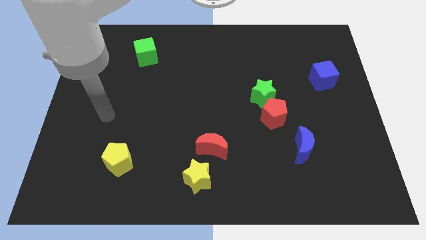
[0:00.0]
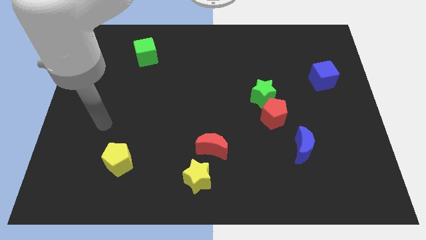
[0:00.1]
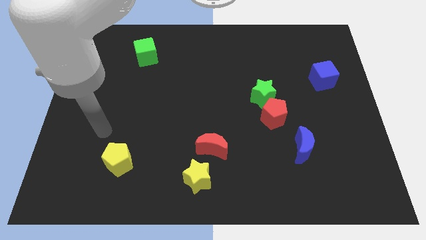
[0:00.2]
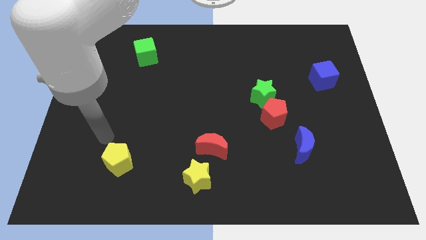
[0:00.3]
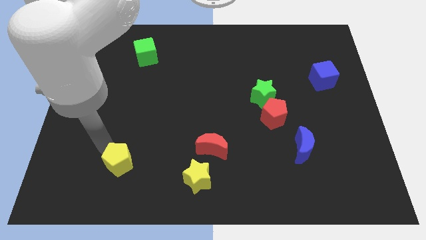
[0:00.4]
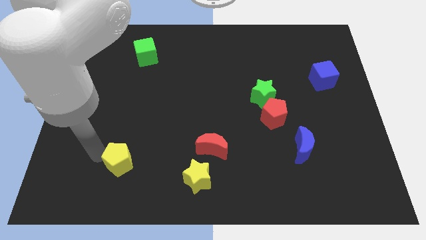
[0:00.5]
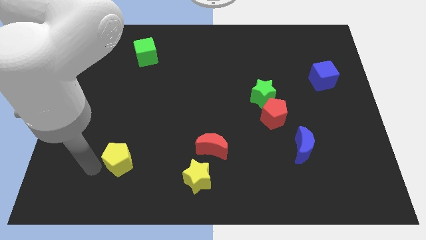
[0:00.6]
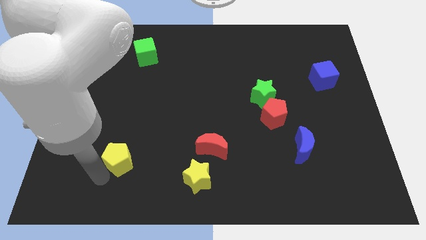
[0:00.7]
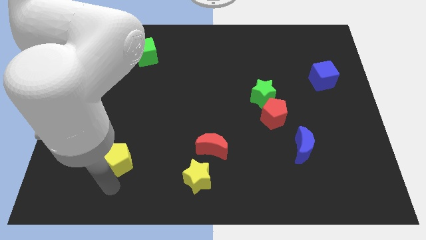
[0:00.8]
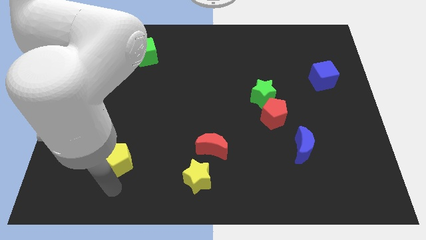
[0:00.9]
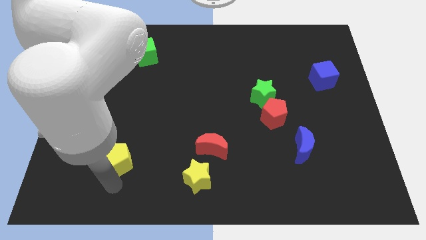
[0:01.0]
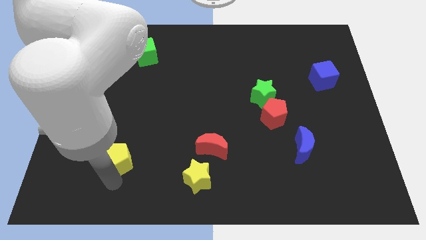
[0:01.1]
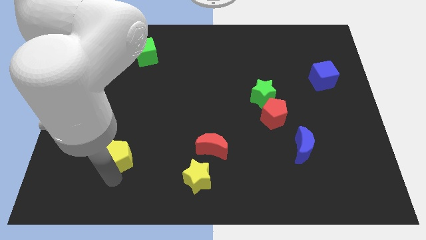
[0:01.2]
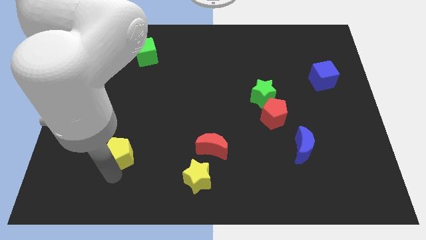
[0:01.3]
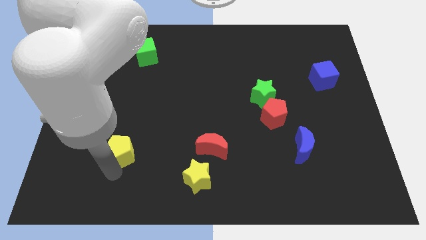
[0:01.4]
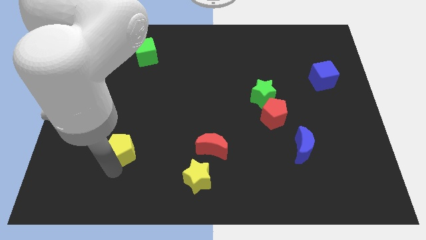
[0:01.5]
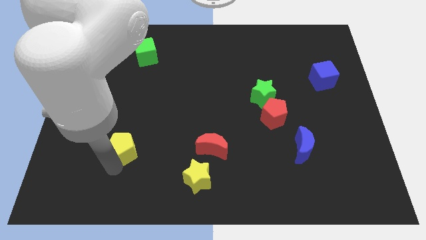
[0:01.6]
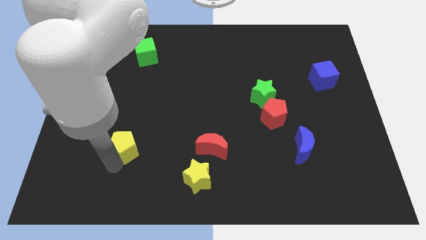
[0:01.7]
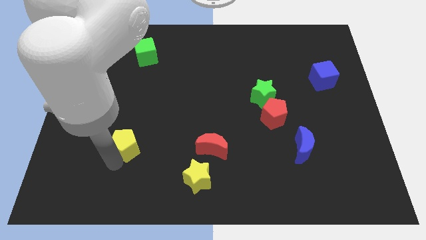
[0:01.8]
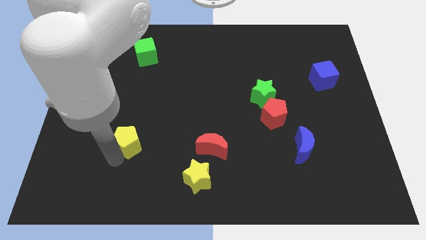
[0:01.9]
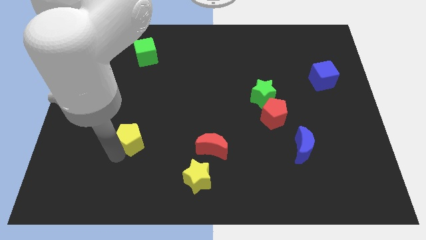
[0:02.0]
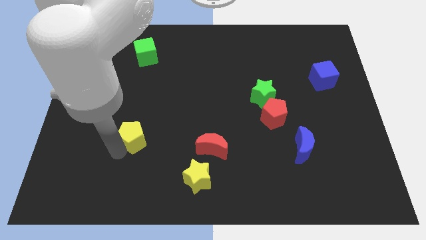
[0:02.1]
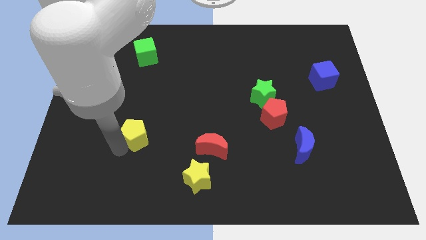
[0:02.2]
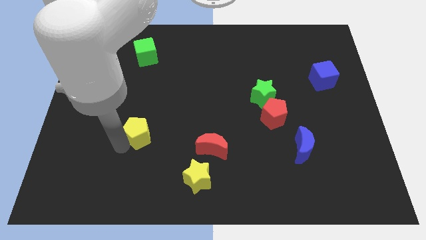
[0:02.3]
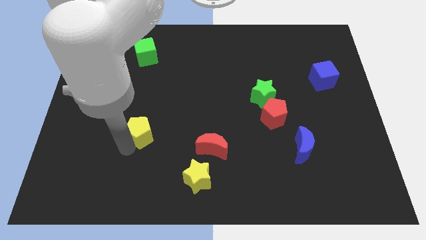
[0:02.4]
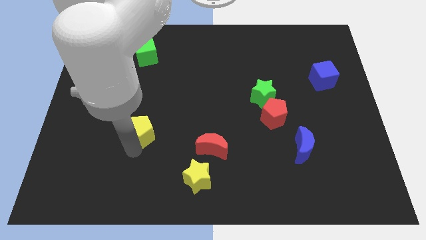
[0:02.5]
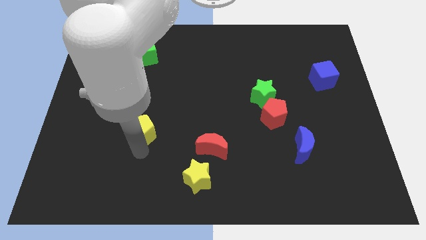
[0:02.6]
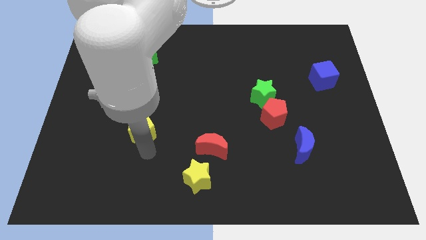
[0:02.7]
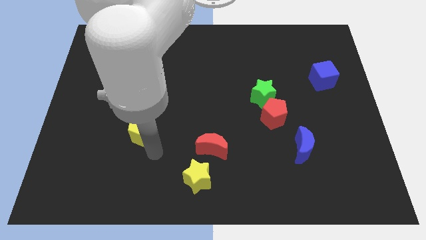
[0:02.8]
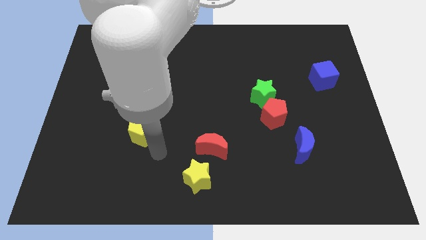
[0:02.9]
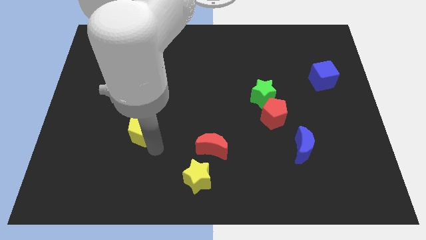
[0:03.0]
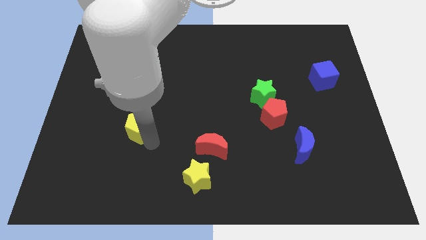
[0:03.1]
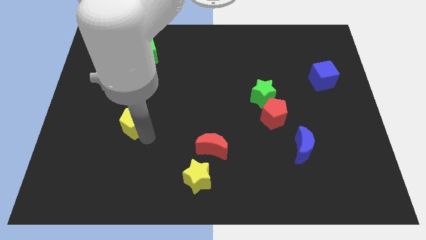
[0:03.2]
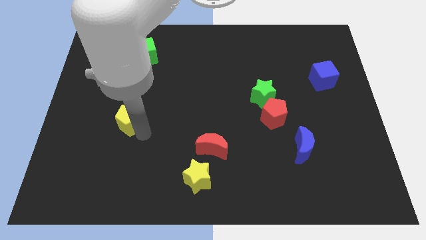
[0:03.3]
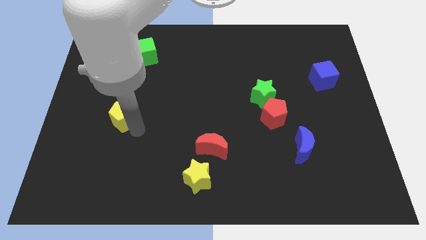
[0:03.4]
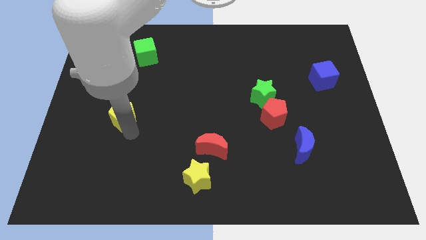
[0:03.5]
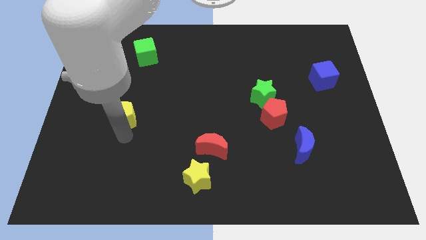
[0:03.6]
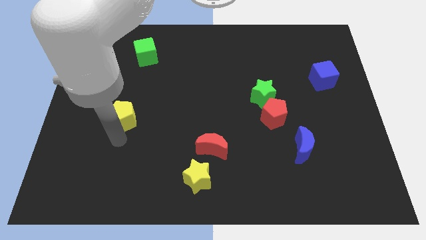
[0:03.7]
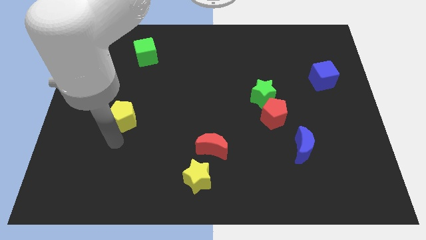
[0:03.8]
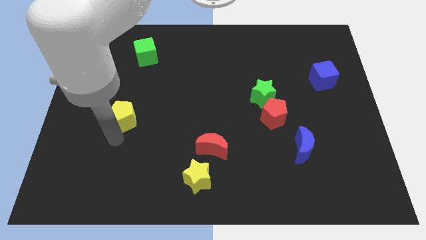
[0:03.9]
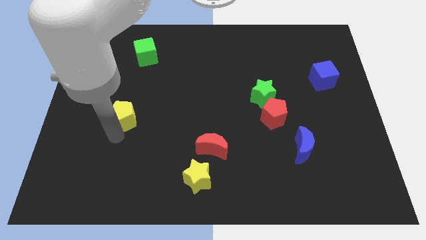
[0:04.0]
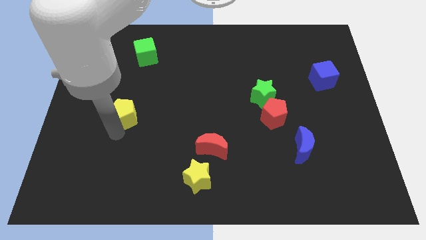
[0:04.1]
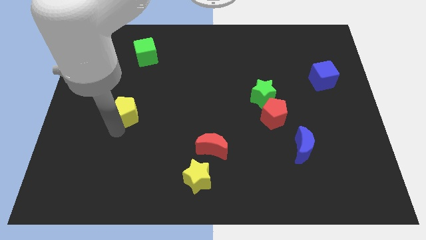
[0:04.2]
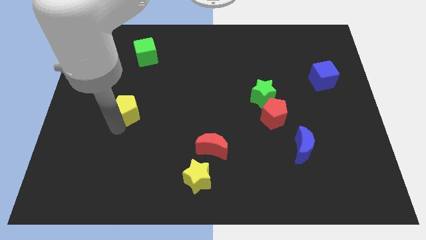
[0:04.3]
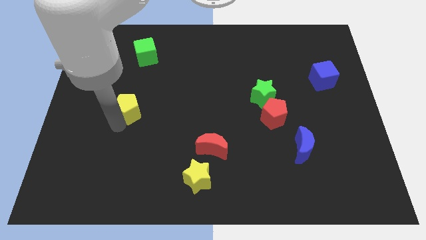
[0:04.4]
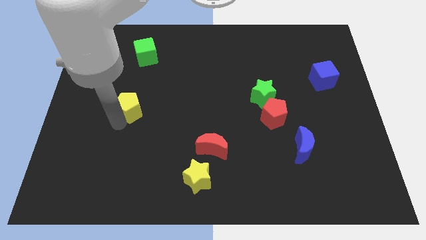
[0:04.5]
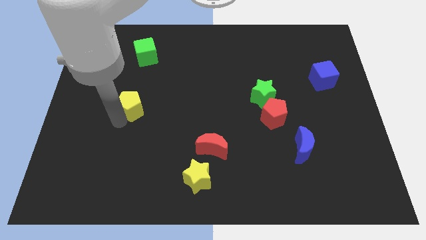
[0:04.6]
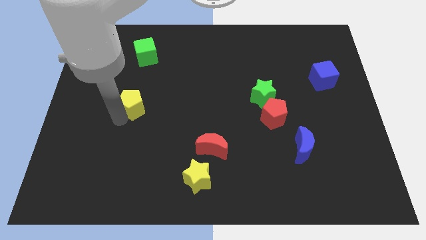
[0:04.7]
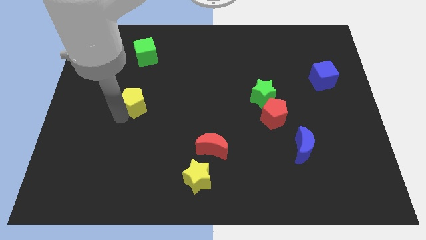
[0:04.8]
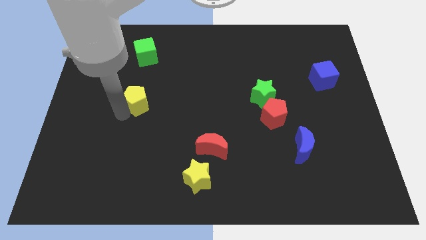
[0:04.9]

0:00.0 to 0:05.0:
push the yellow pentagon below the green cube

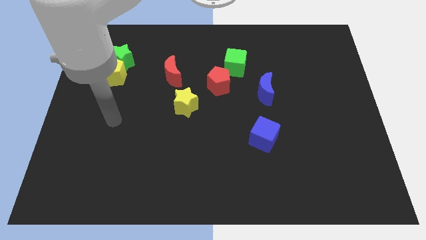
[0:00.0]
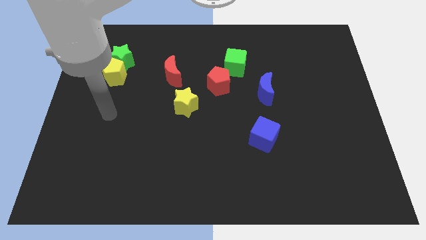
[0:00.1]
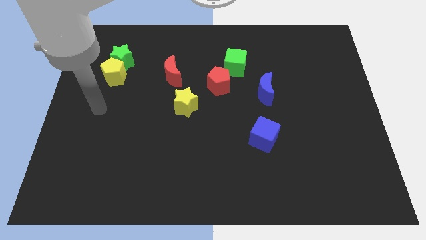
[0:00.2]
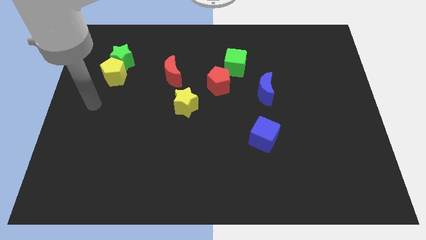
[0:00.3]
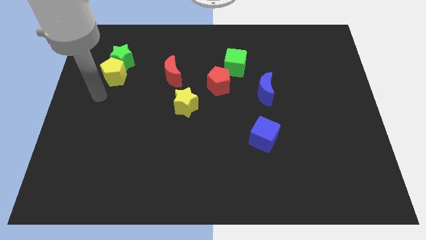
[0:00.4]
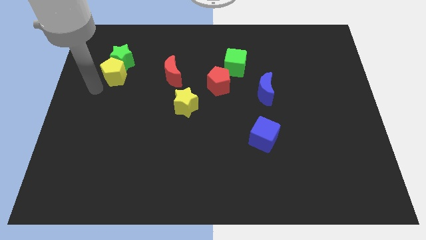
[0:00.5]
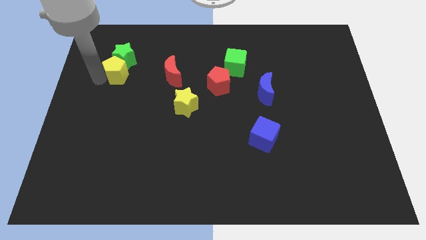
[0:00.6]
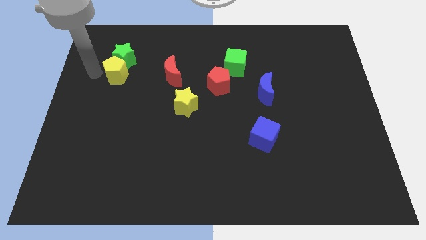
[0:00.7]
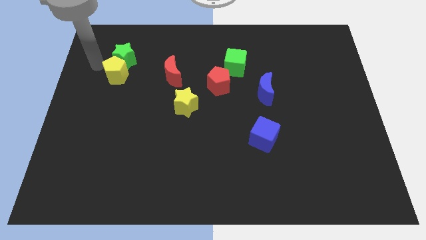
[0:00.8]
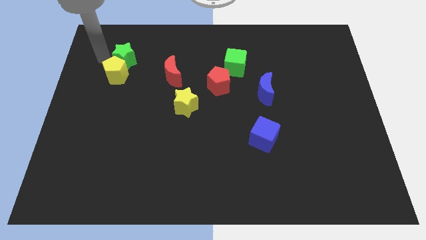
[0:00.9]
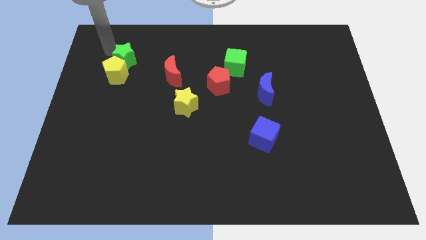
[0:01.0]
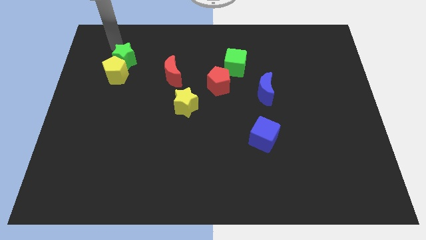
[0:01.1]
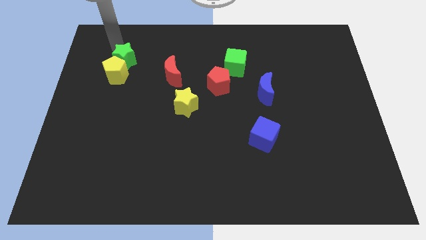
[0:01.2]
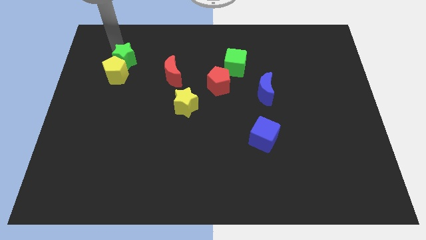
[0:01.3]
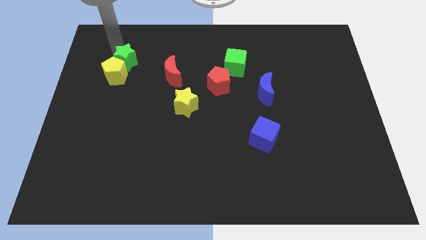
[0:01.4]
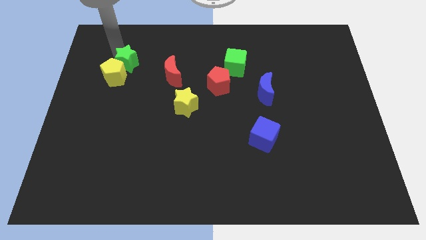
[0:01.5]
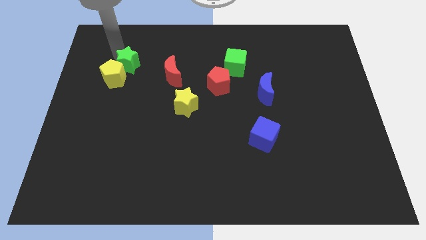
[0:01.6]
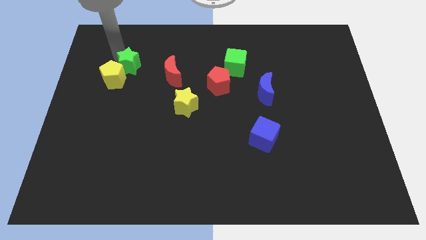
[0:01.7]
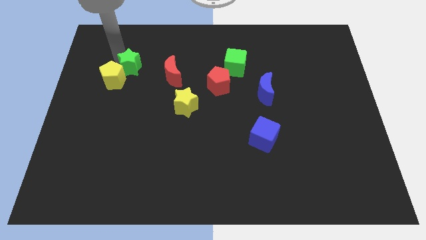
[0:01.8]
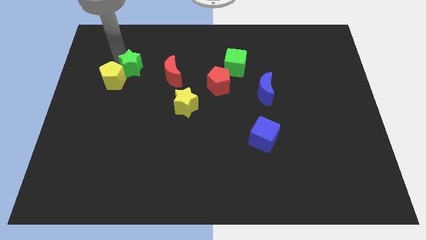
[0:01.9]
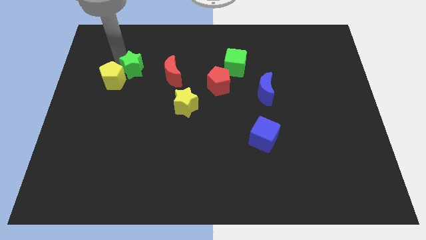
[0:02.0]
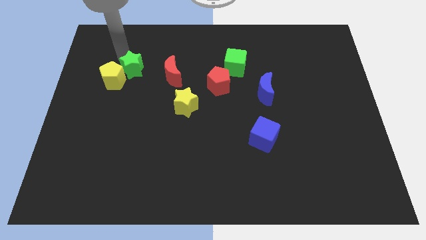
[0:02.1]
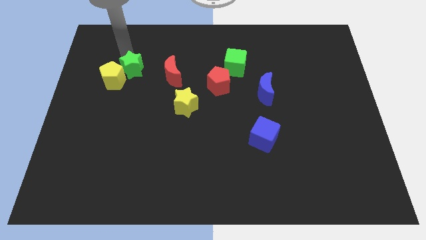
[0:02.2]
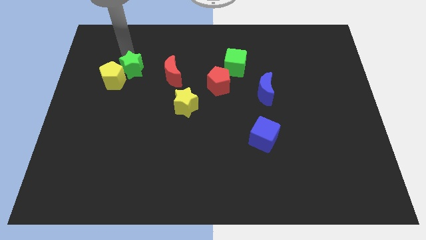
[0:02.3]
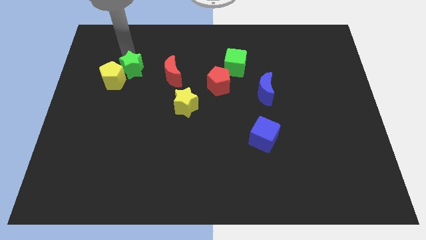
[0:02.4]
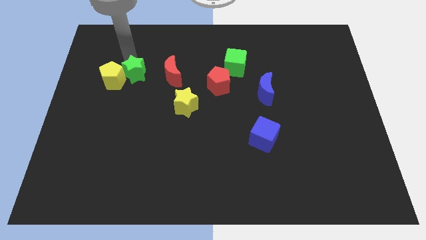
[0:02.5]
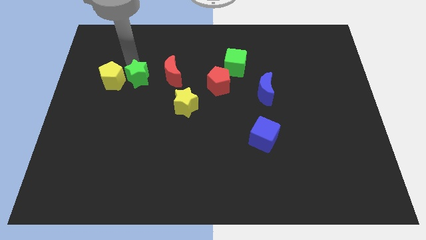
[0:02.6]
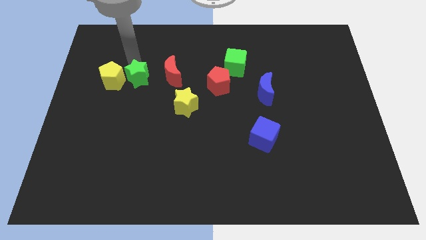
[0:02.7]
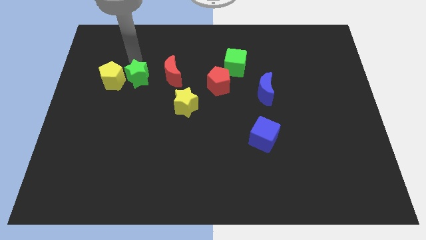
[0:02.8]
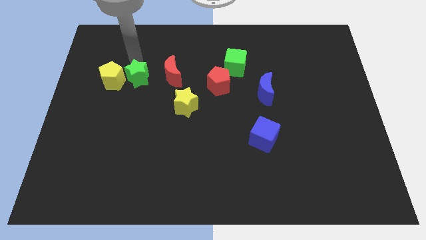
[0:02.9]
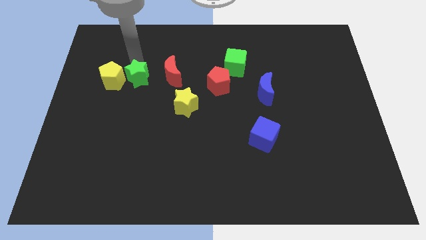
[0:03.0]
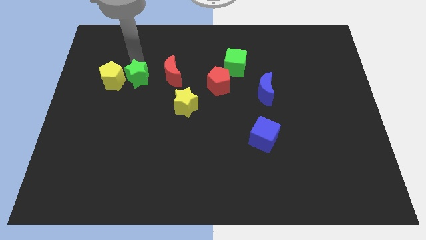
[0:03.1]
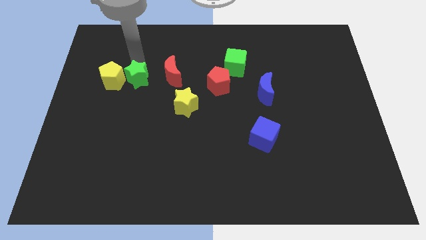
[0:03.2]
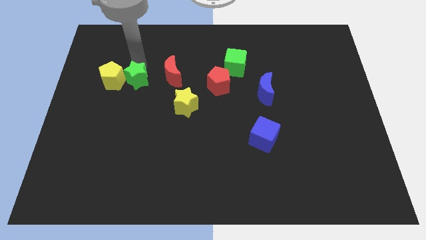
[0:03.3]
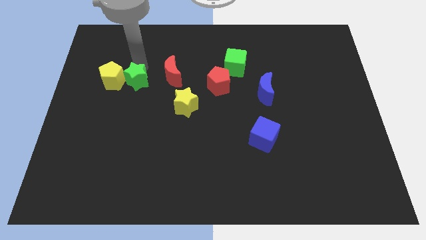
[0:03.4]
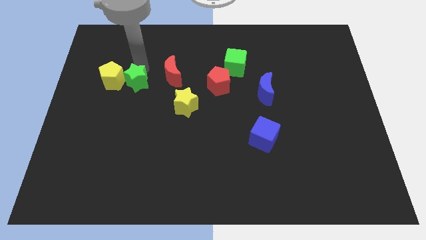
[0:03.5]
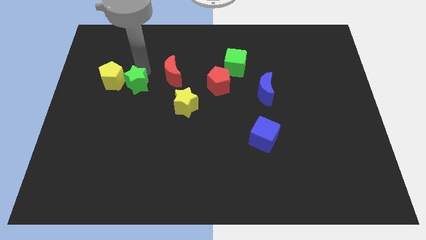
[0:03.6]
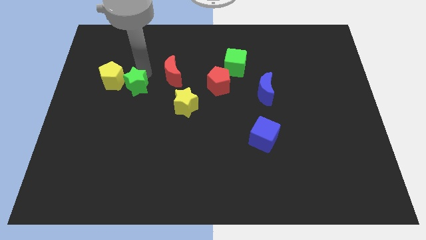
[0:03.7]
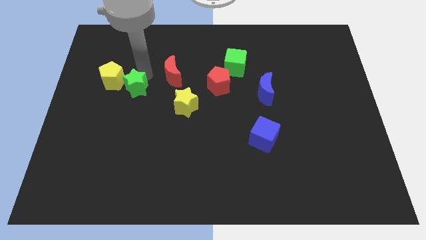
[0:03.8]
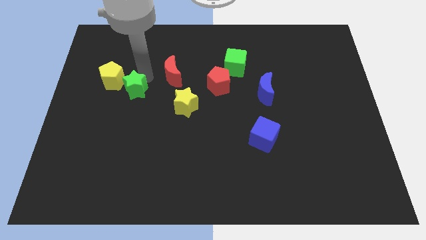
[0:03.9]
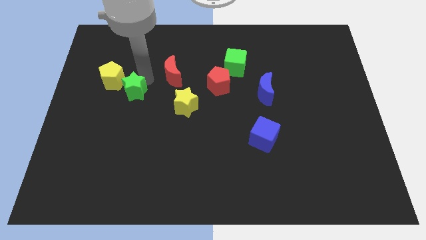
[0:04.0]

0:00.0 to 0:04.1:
put the green star just left of the yellow star
